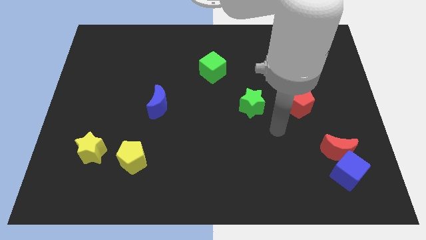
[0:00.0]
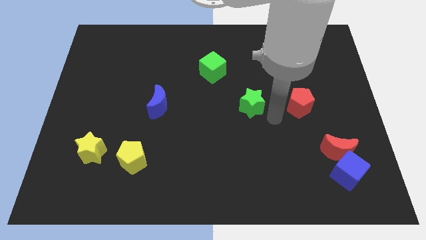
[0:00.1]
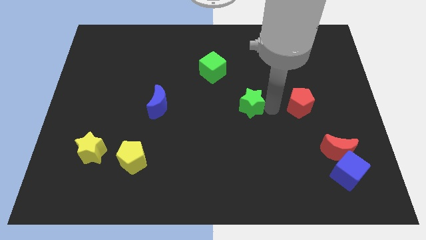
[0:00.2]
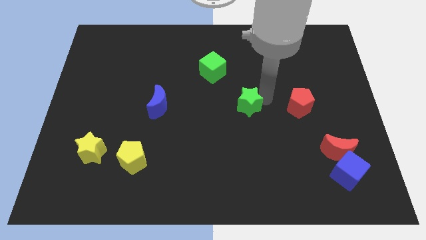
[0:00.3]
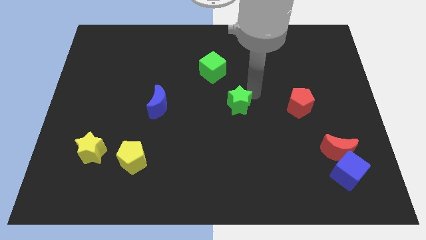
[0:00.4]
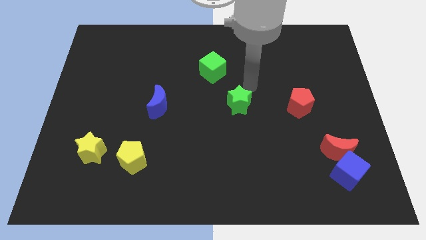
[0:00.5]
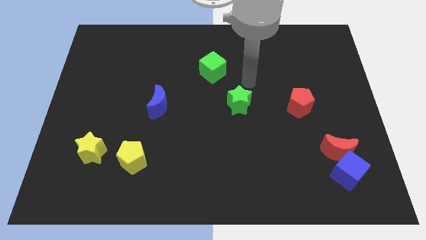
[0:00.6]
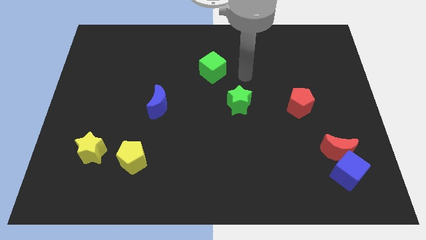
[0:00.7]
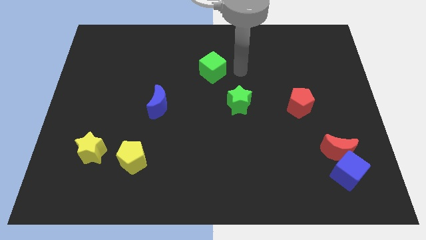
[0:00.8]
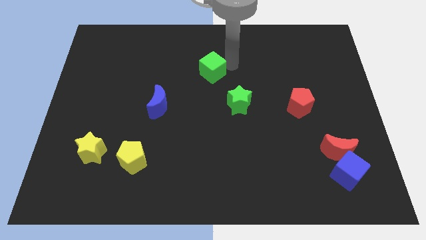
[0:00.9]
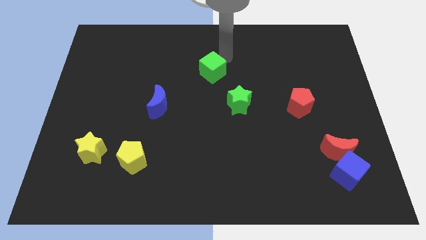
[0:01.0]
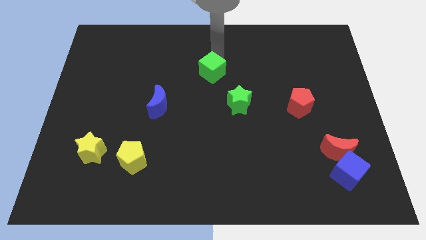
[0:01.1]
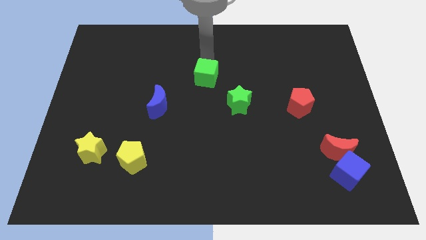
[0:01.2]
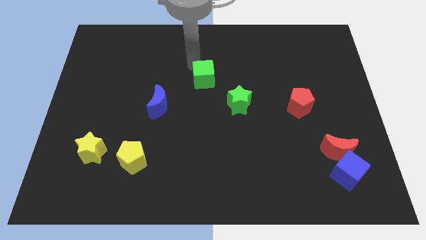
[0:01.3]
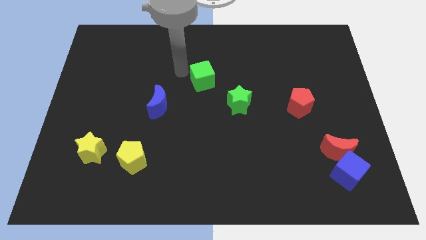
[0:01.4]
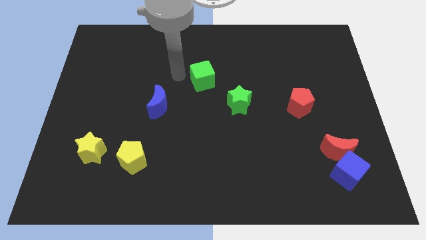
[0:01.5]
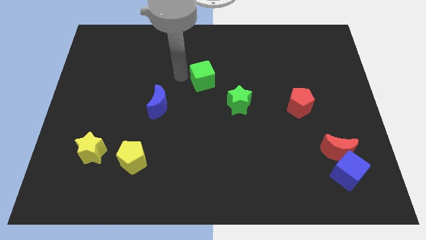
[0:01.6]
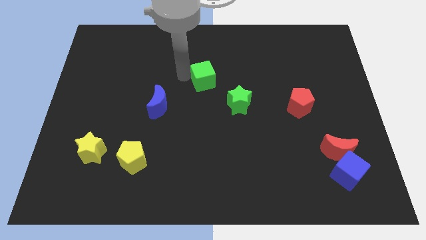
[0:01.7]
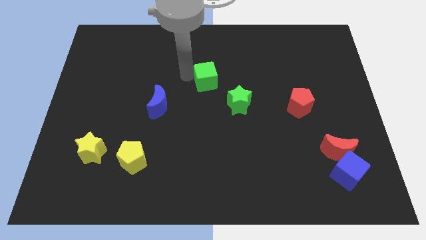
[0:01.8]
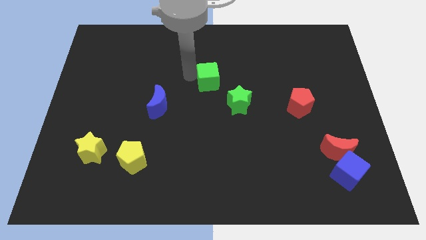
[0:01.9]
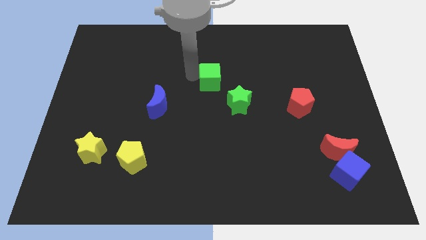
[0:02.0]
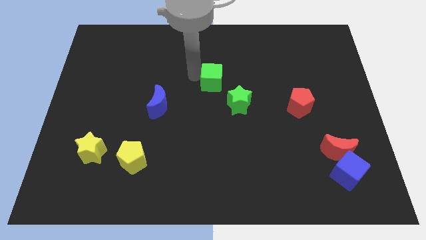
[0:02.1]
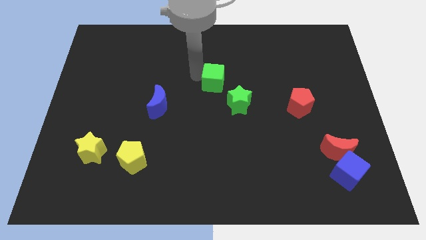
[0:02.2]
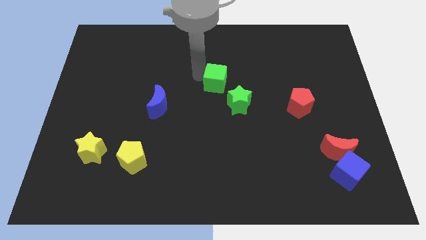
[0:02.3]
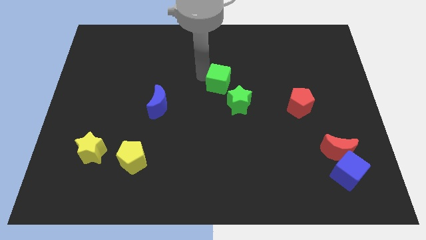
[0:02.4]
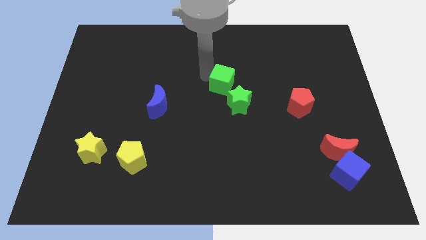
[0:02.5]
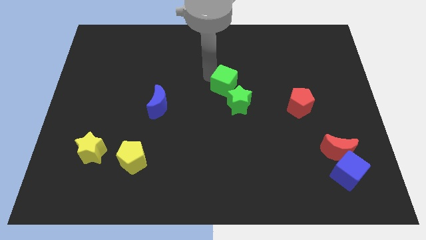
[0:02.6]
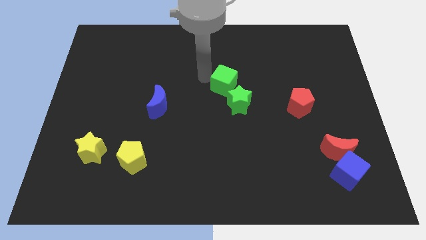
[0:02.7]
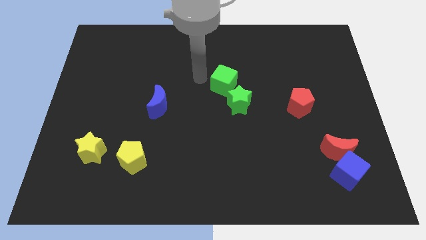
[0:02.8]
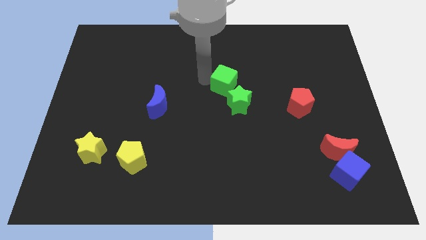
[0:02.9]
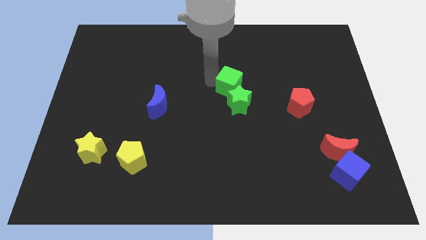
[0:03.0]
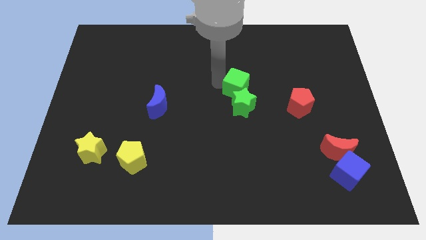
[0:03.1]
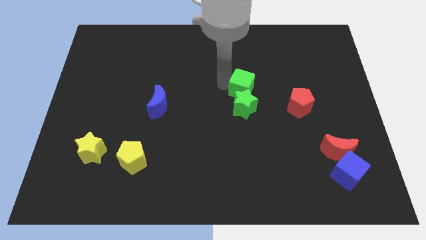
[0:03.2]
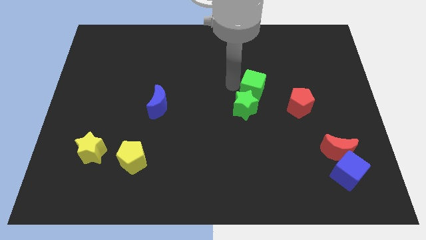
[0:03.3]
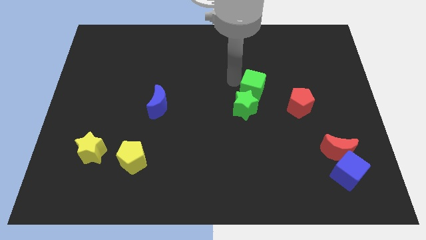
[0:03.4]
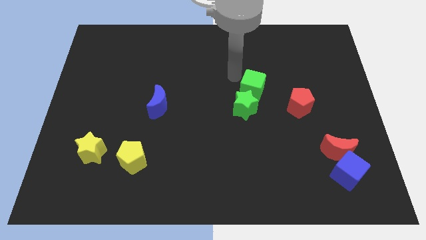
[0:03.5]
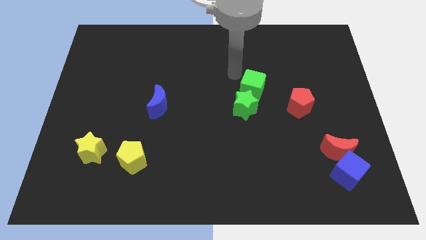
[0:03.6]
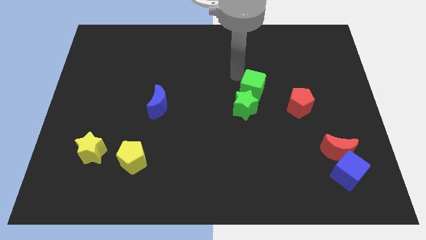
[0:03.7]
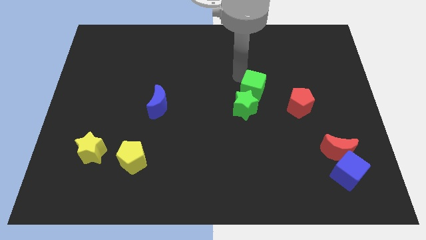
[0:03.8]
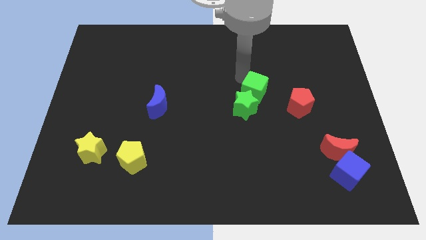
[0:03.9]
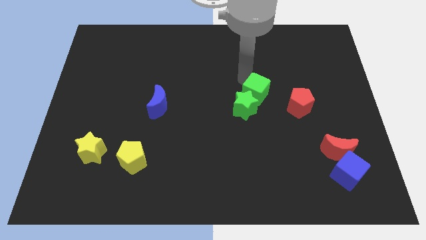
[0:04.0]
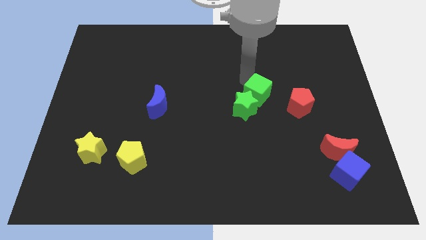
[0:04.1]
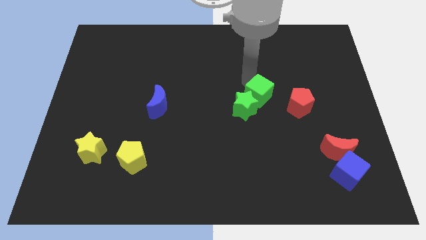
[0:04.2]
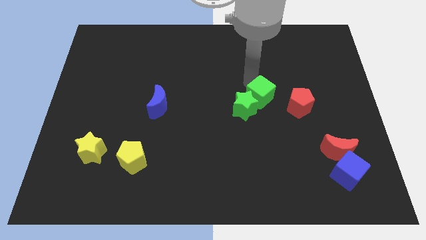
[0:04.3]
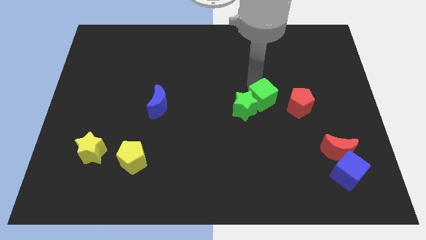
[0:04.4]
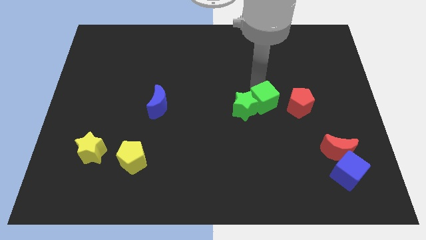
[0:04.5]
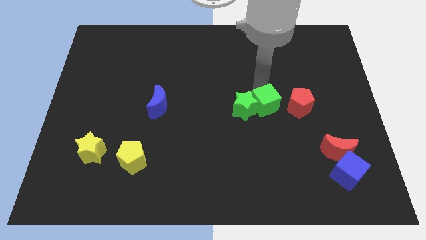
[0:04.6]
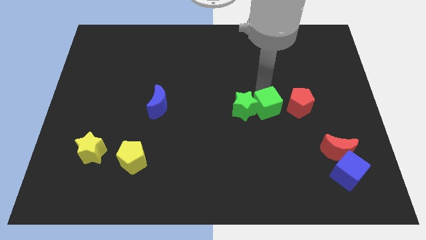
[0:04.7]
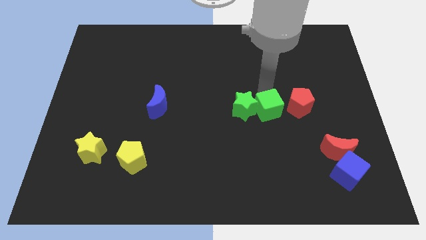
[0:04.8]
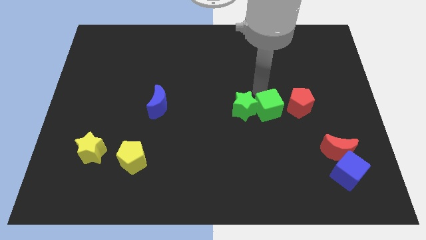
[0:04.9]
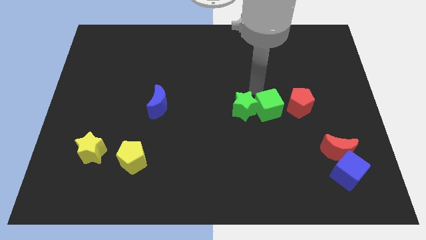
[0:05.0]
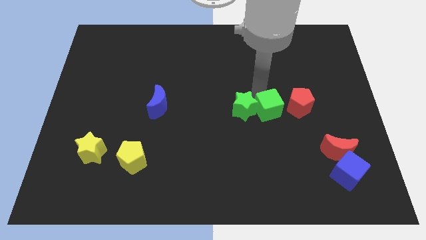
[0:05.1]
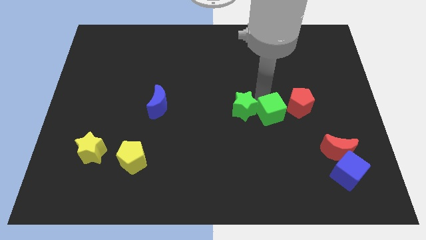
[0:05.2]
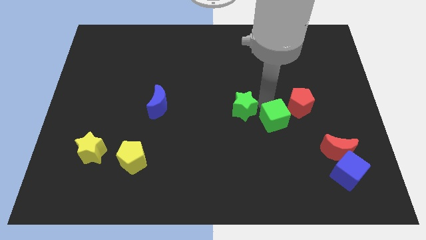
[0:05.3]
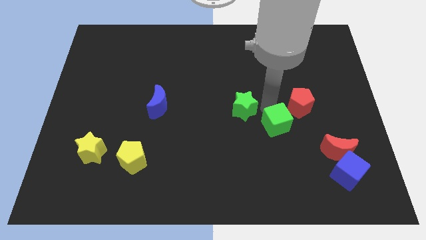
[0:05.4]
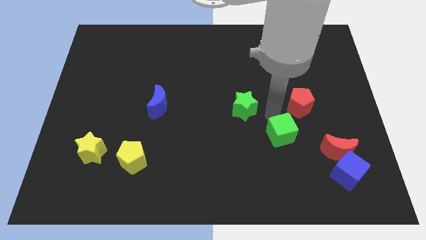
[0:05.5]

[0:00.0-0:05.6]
put the green cube left of the red moon

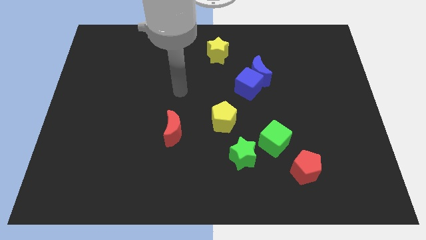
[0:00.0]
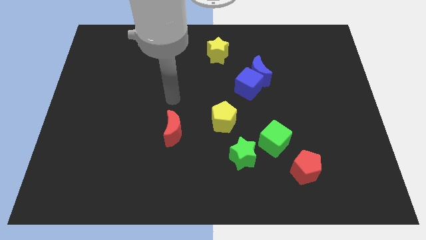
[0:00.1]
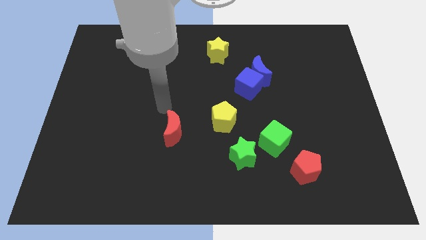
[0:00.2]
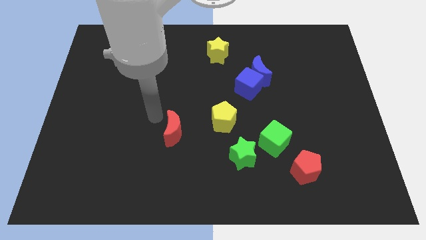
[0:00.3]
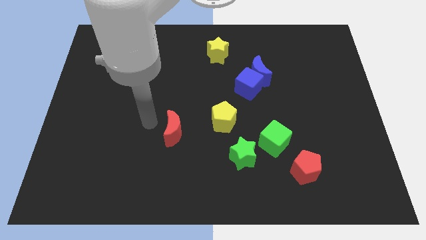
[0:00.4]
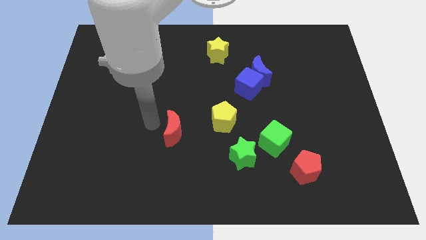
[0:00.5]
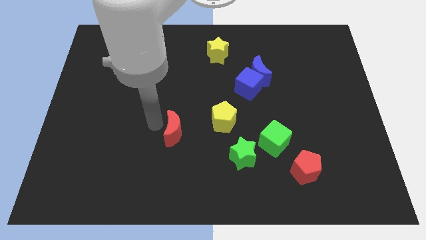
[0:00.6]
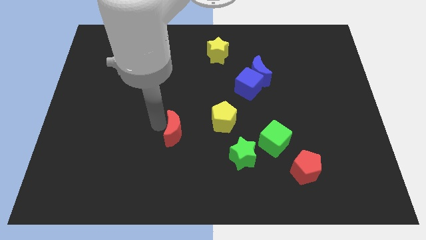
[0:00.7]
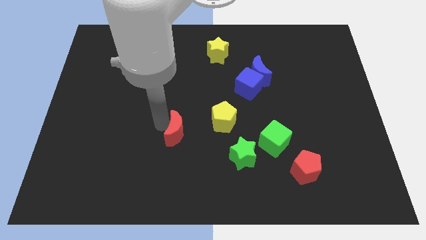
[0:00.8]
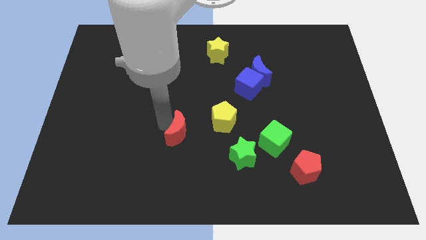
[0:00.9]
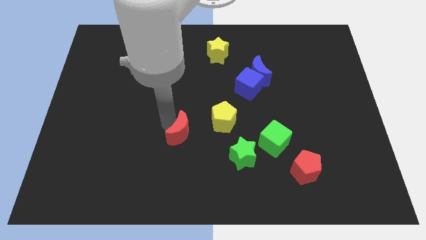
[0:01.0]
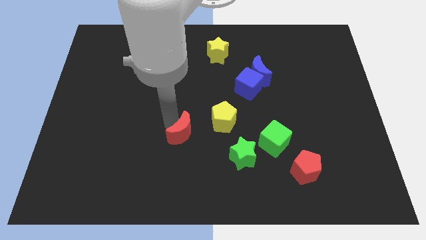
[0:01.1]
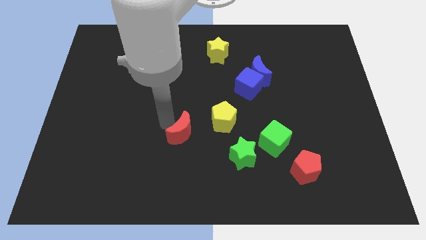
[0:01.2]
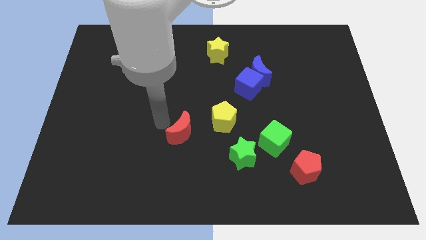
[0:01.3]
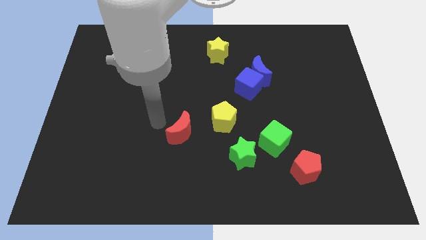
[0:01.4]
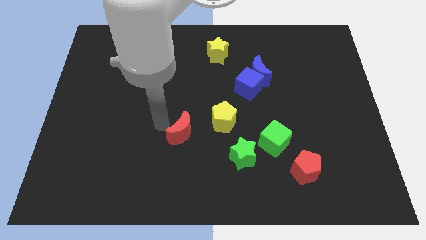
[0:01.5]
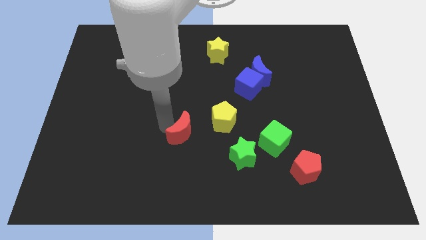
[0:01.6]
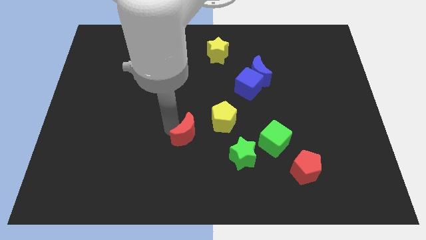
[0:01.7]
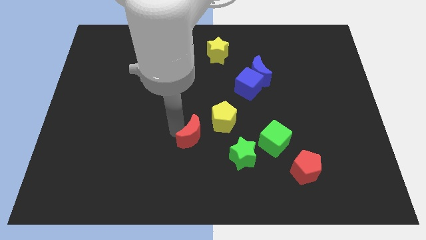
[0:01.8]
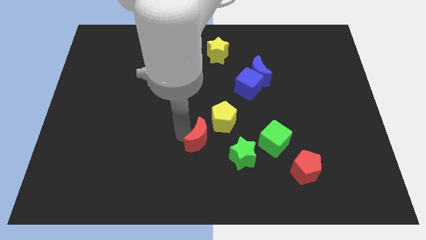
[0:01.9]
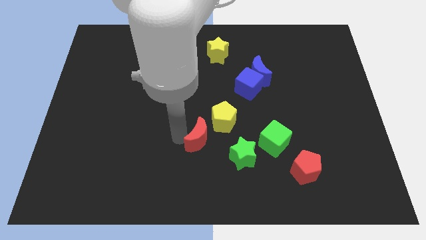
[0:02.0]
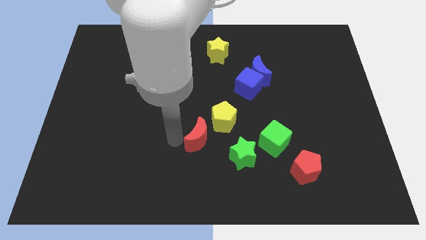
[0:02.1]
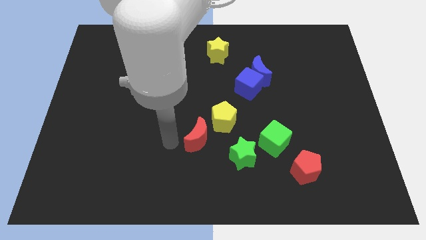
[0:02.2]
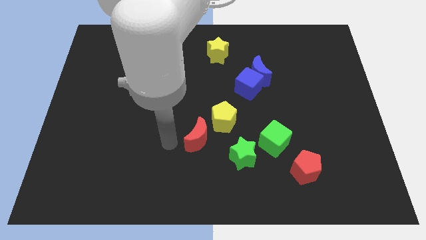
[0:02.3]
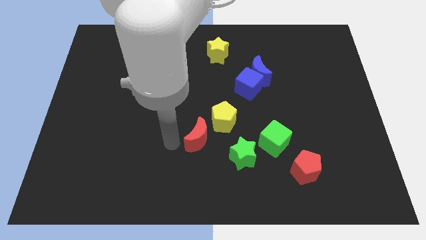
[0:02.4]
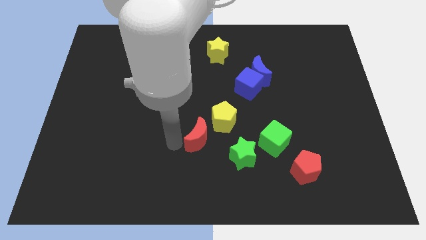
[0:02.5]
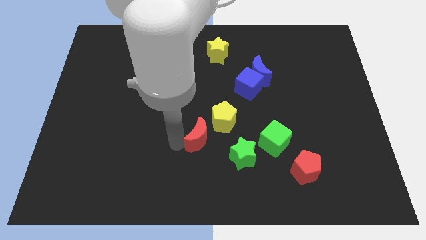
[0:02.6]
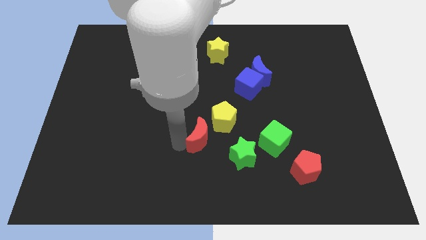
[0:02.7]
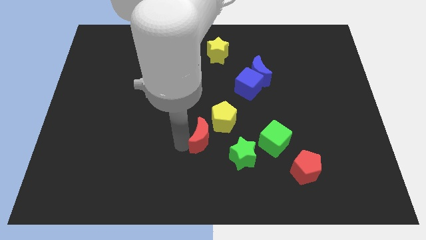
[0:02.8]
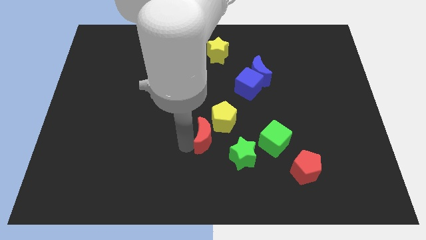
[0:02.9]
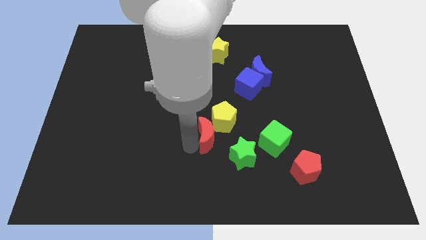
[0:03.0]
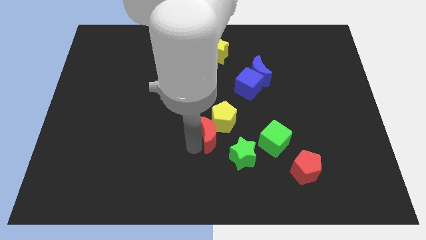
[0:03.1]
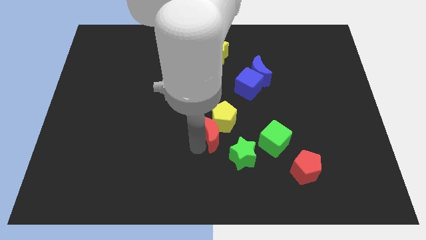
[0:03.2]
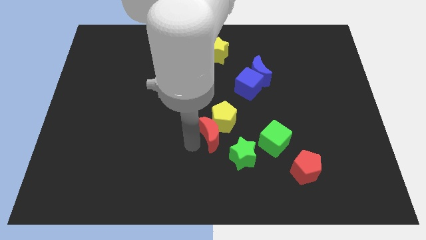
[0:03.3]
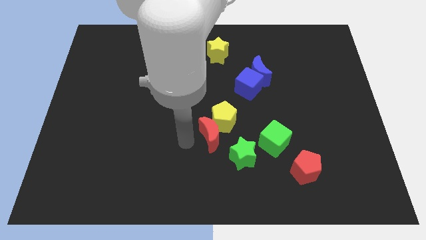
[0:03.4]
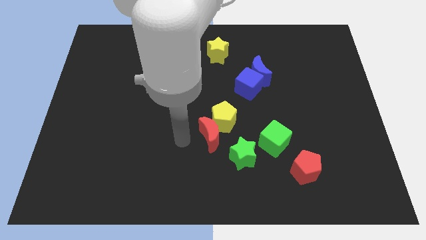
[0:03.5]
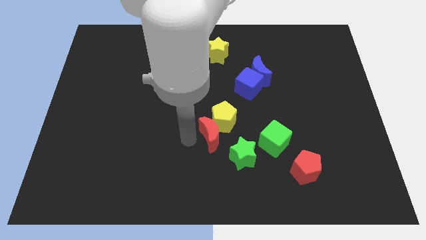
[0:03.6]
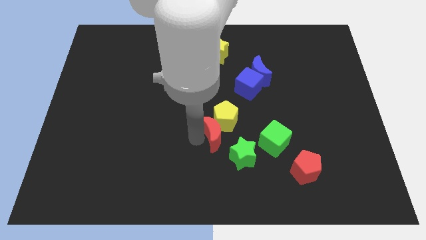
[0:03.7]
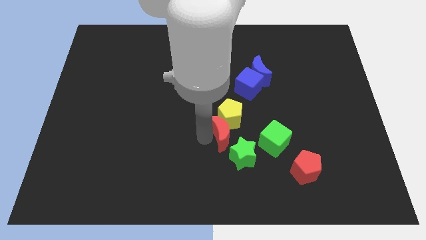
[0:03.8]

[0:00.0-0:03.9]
move the red moon to the top side of the green star
